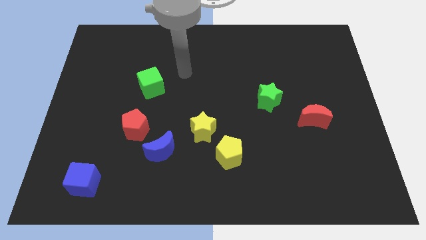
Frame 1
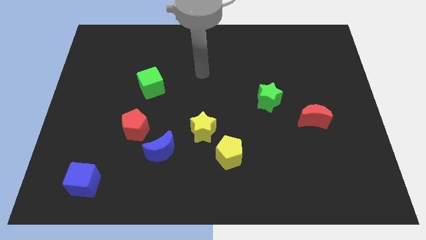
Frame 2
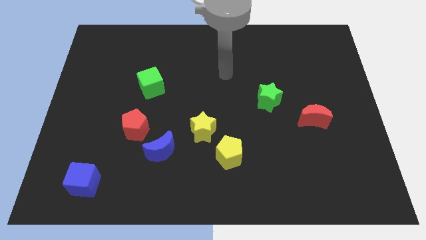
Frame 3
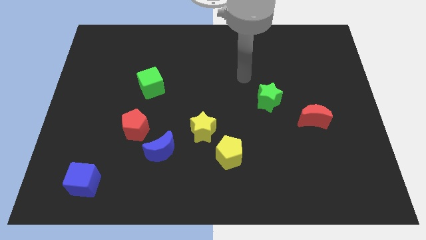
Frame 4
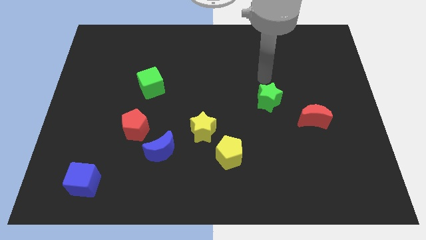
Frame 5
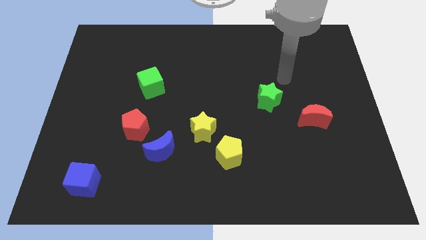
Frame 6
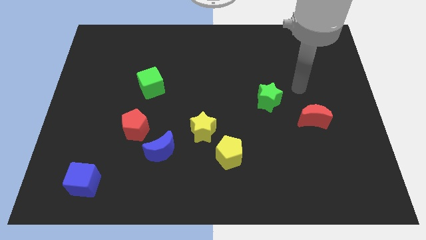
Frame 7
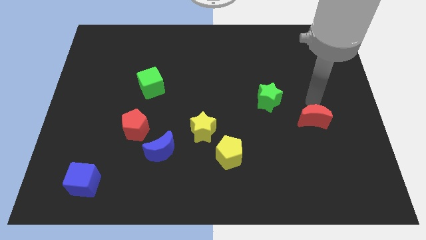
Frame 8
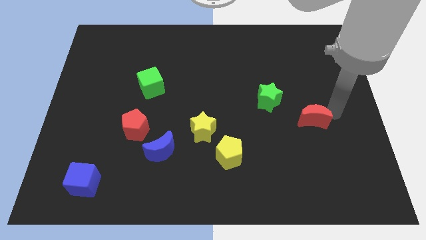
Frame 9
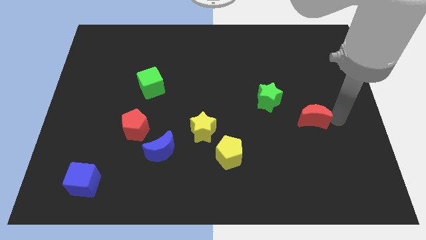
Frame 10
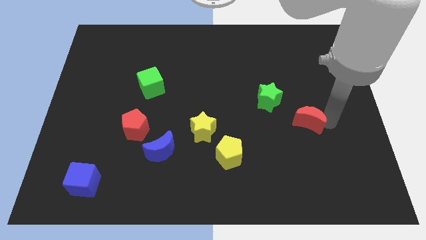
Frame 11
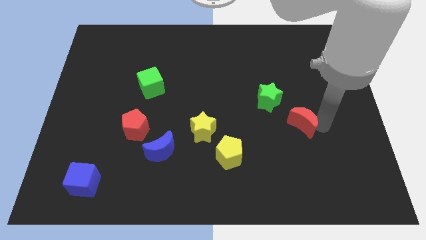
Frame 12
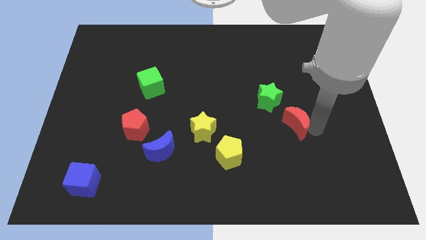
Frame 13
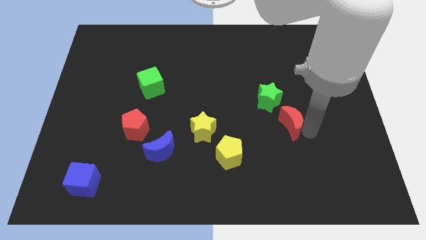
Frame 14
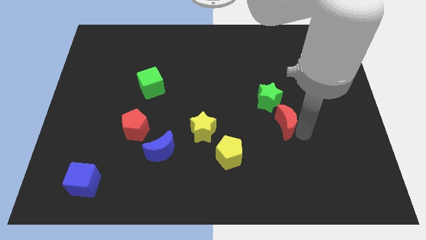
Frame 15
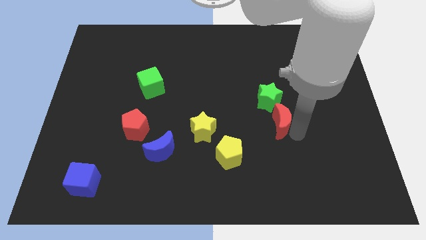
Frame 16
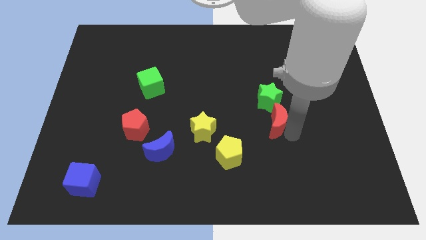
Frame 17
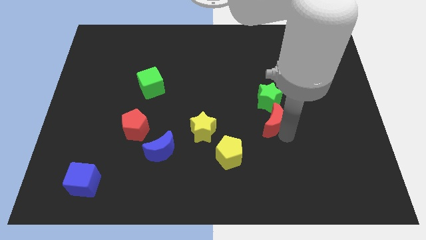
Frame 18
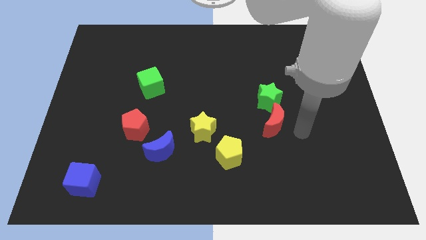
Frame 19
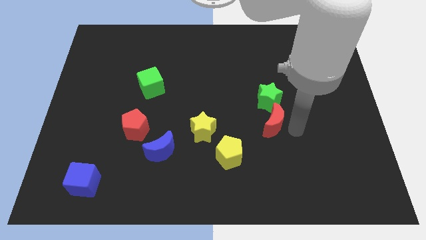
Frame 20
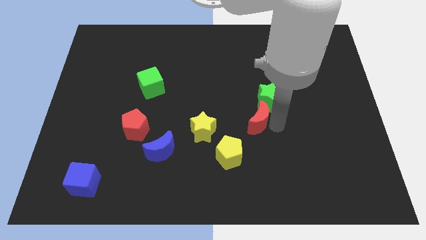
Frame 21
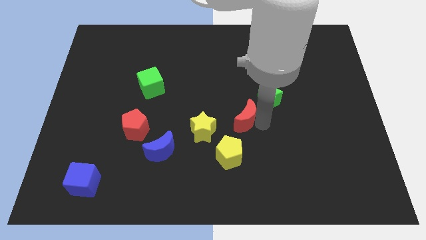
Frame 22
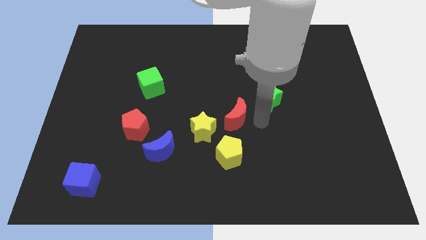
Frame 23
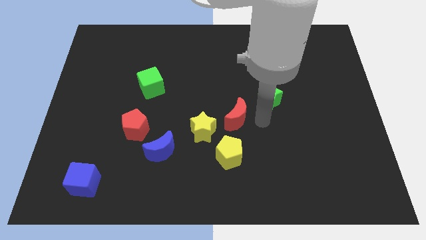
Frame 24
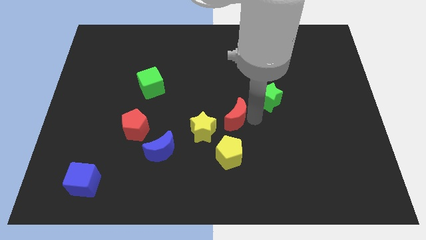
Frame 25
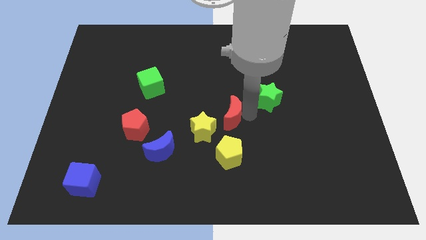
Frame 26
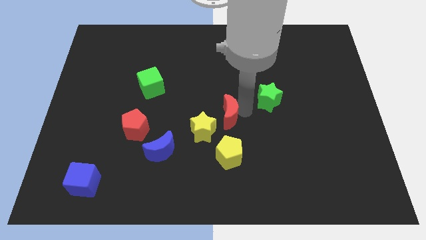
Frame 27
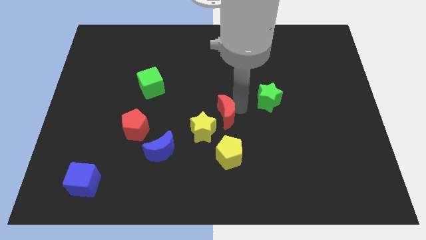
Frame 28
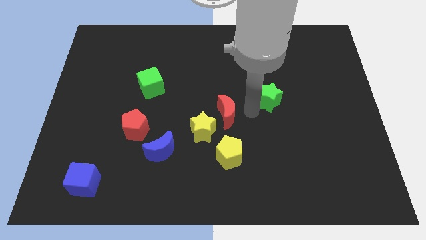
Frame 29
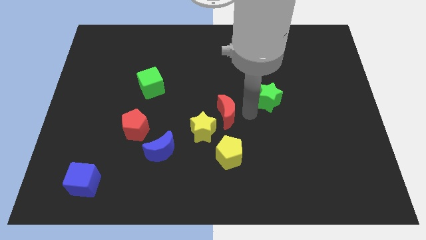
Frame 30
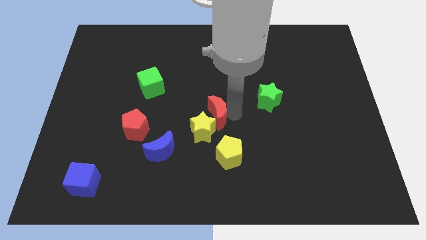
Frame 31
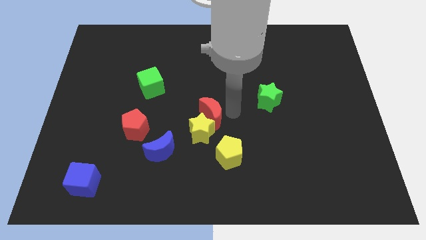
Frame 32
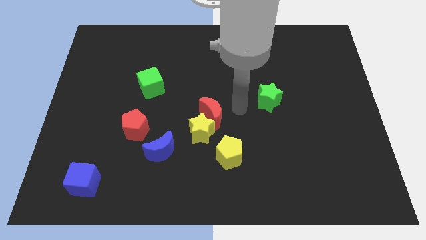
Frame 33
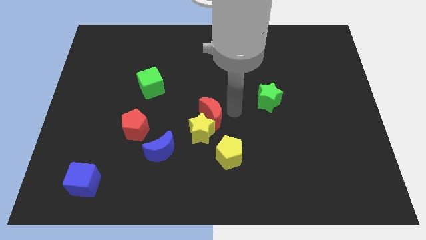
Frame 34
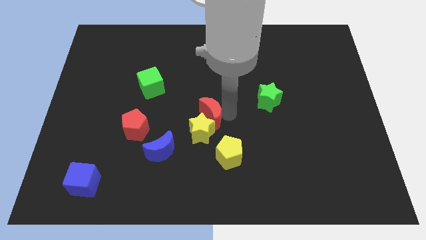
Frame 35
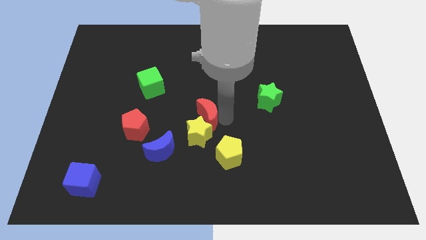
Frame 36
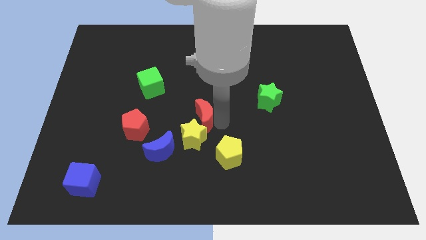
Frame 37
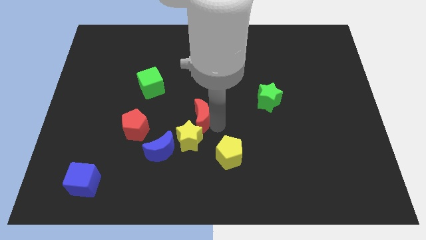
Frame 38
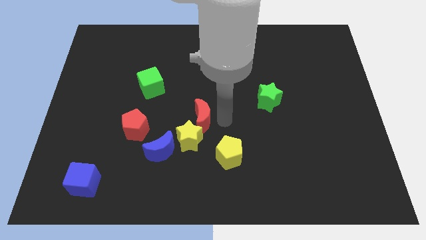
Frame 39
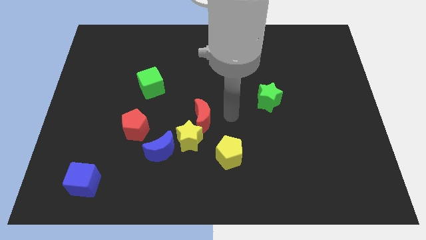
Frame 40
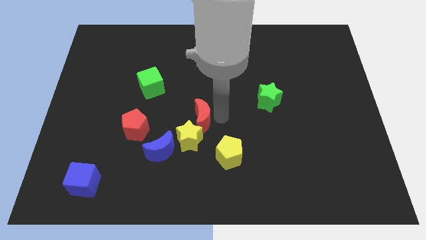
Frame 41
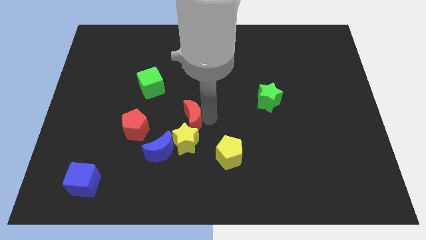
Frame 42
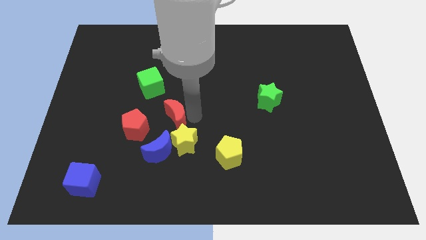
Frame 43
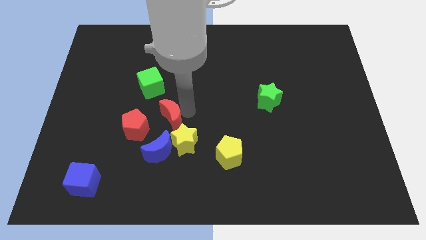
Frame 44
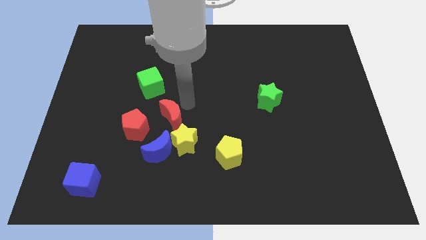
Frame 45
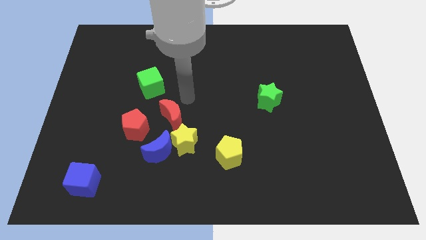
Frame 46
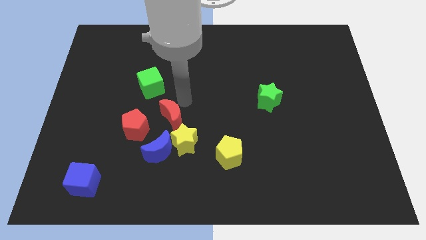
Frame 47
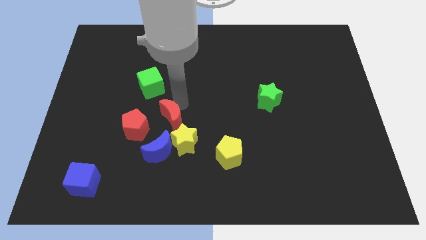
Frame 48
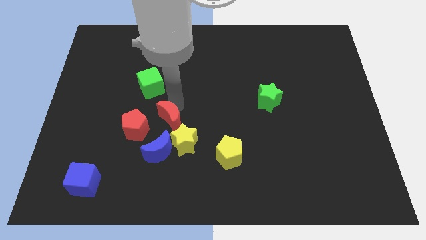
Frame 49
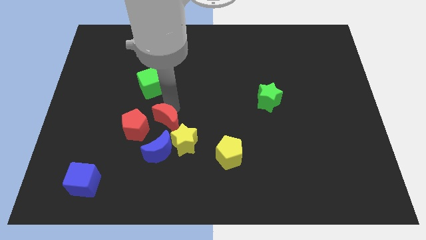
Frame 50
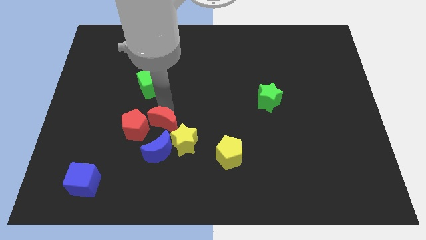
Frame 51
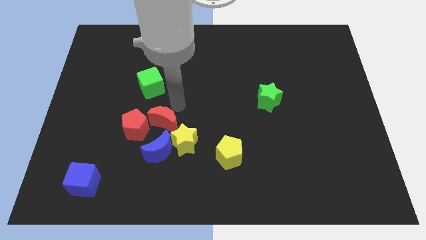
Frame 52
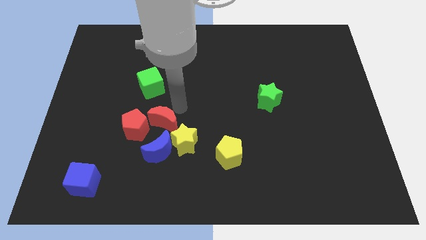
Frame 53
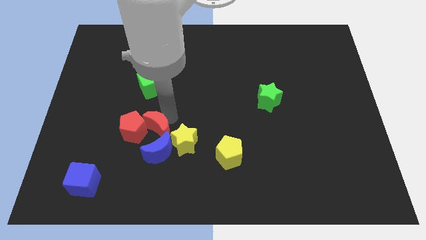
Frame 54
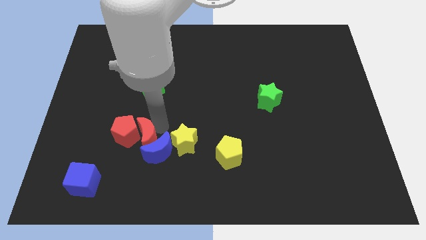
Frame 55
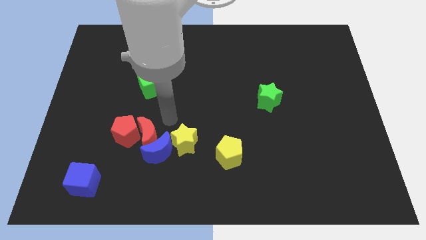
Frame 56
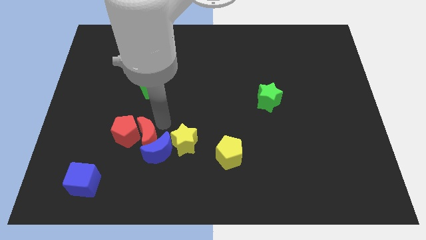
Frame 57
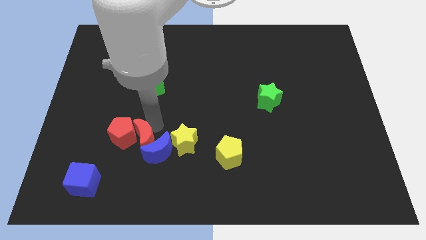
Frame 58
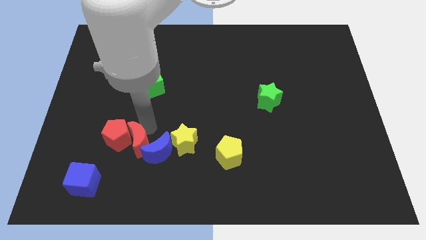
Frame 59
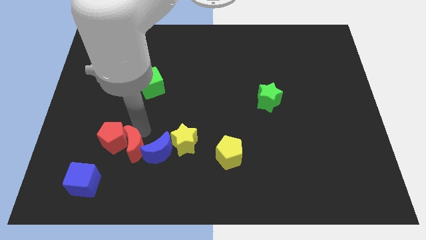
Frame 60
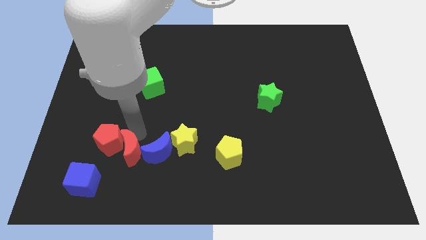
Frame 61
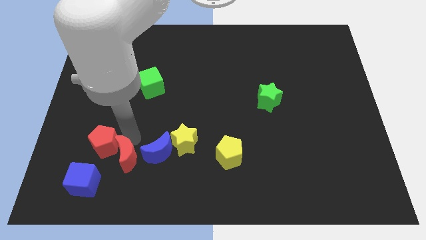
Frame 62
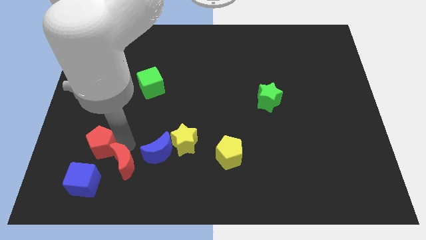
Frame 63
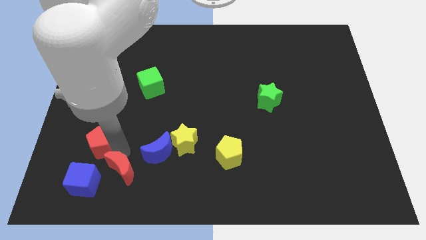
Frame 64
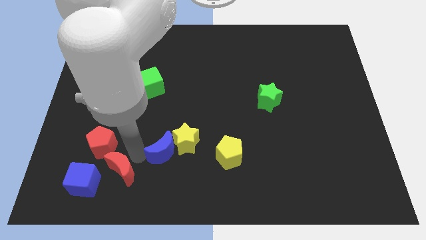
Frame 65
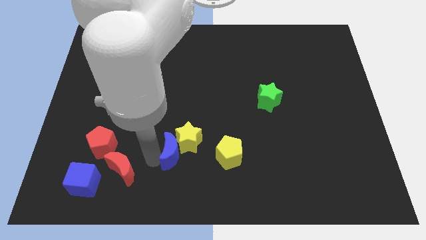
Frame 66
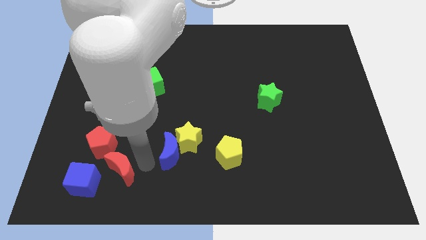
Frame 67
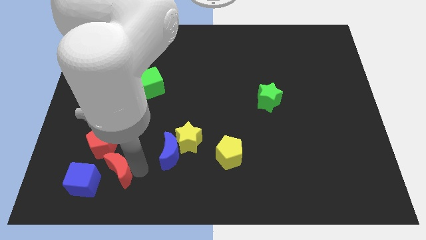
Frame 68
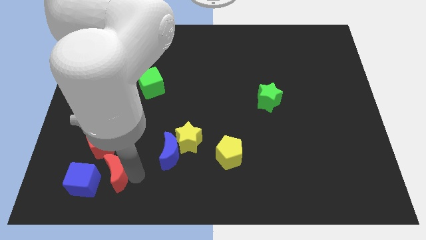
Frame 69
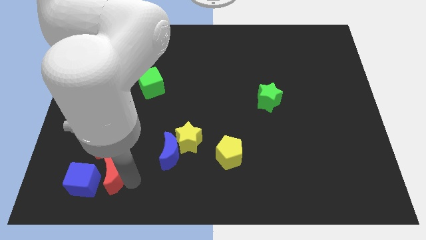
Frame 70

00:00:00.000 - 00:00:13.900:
slide the red moon to the blue cube
